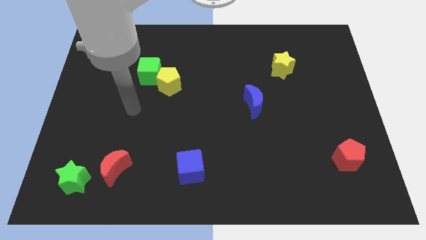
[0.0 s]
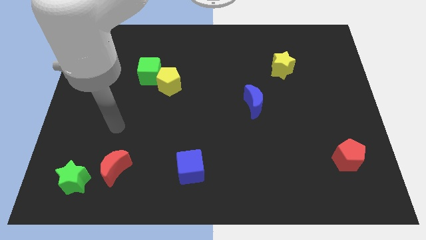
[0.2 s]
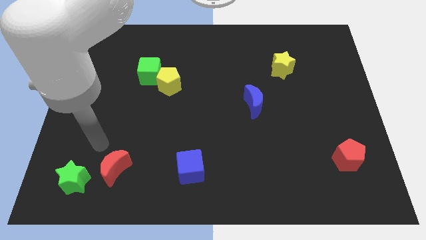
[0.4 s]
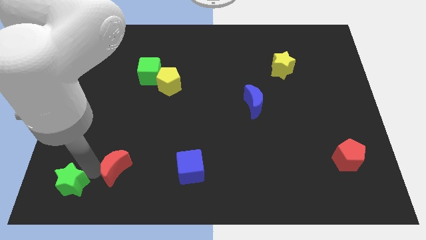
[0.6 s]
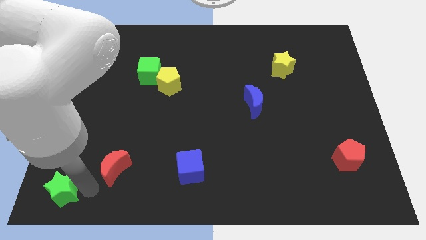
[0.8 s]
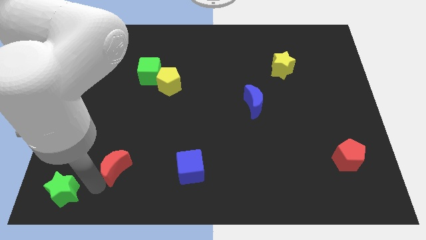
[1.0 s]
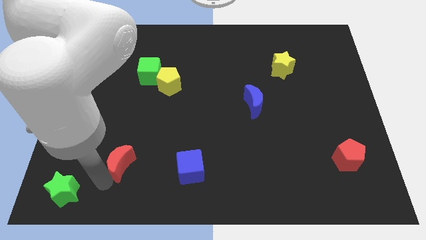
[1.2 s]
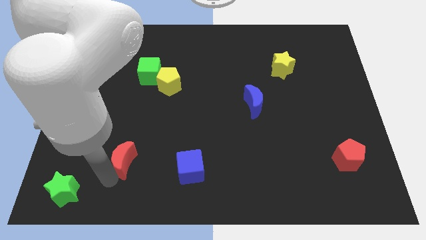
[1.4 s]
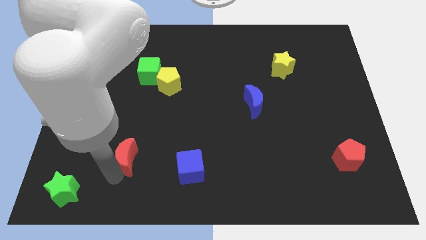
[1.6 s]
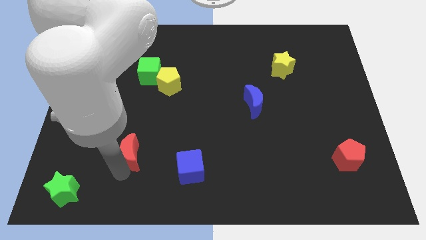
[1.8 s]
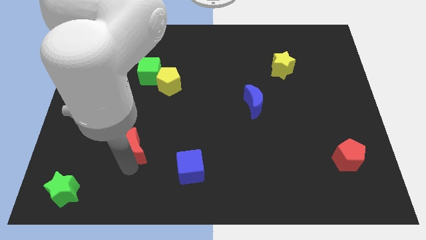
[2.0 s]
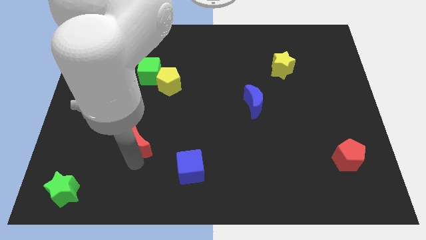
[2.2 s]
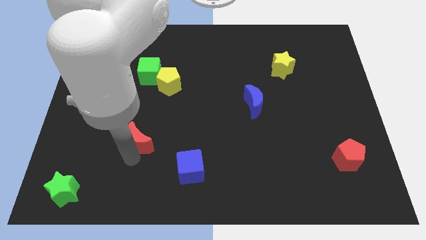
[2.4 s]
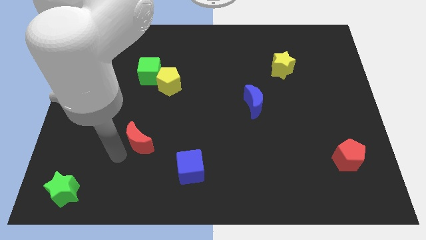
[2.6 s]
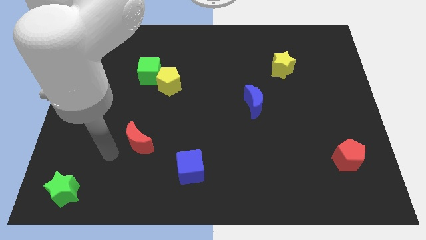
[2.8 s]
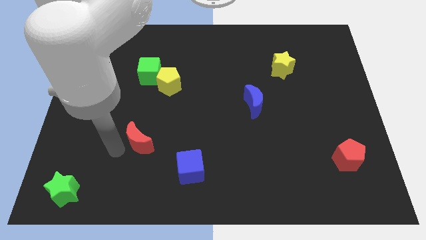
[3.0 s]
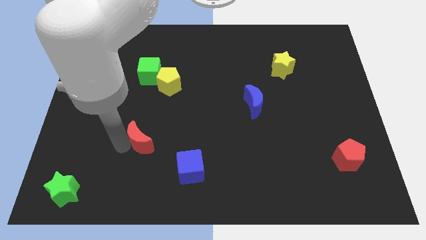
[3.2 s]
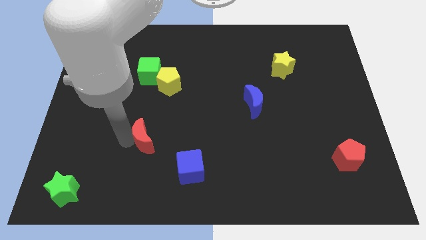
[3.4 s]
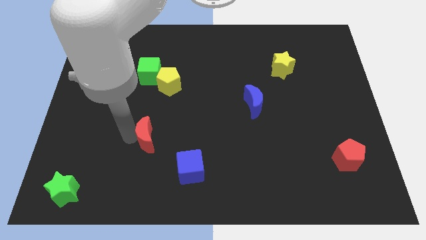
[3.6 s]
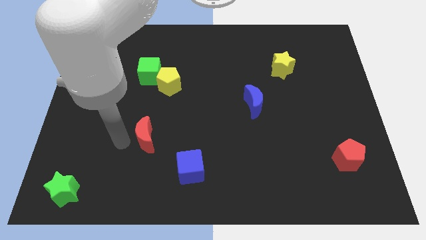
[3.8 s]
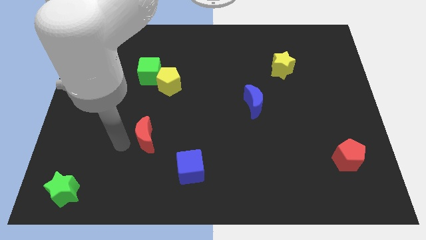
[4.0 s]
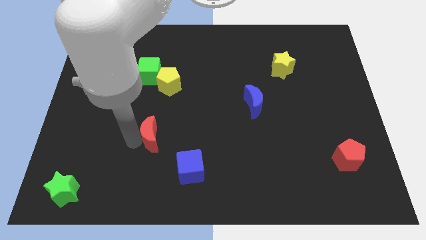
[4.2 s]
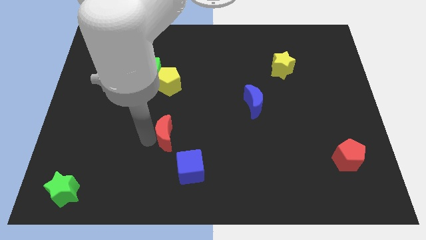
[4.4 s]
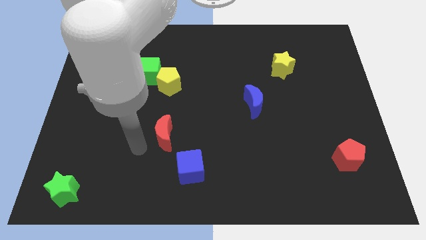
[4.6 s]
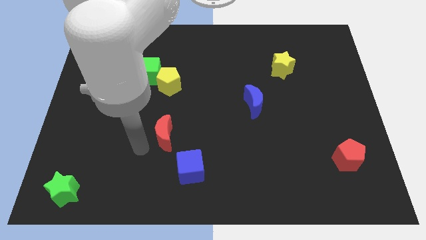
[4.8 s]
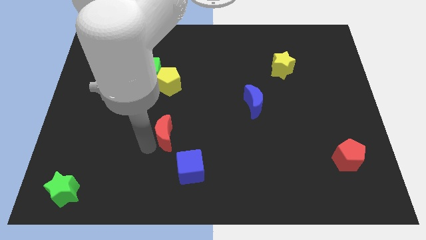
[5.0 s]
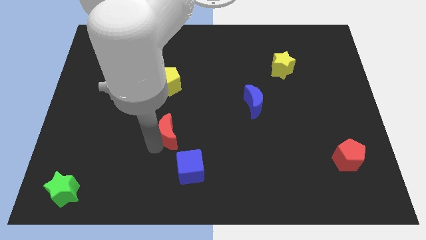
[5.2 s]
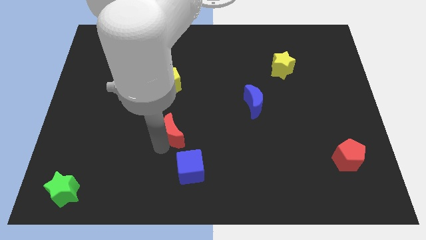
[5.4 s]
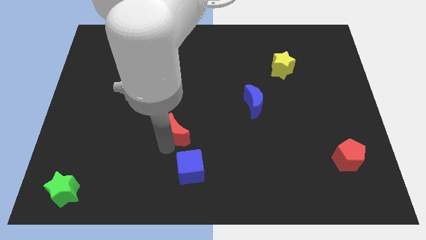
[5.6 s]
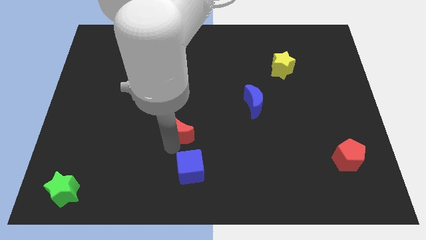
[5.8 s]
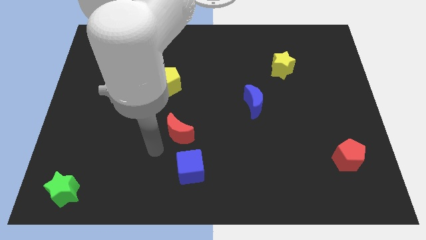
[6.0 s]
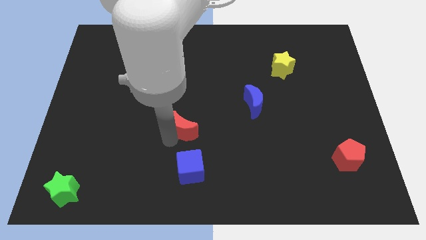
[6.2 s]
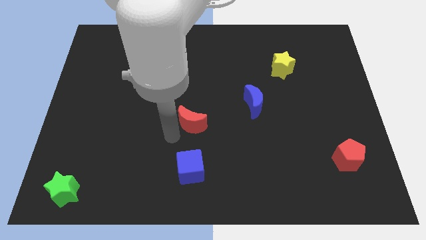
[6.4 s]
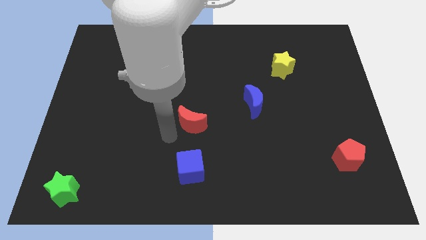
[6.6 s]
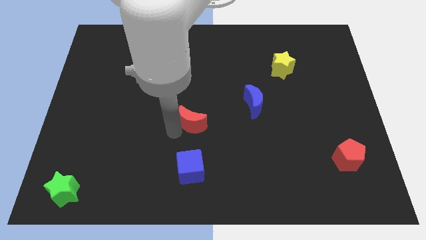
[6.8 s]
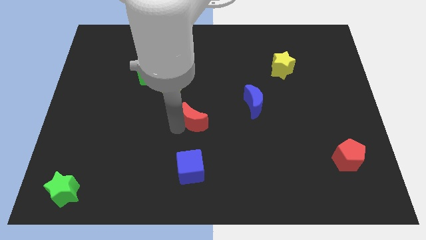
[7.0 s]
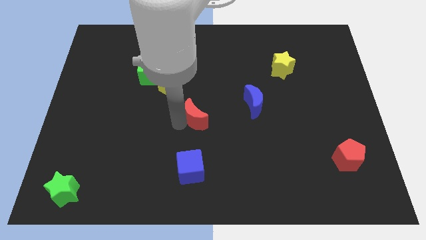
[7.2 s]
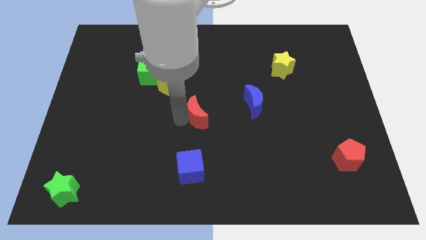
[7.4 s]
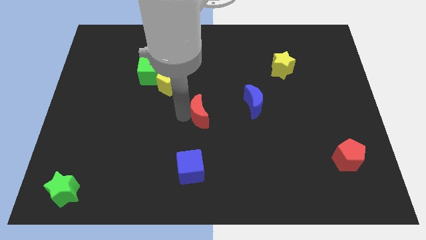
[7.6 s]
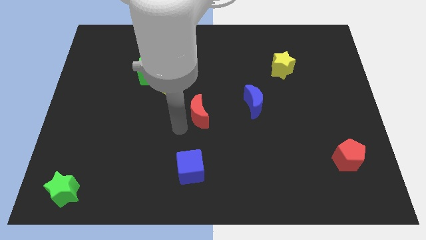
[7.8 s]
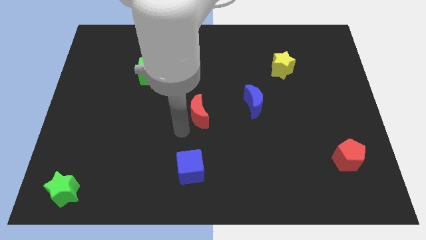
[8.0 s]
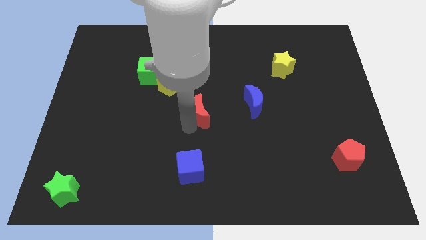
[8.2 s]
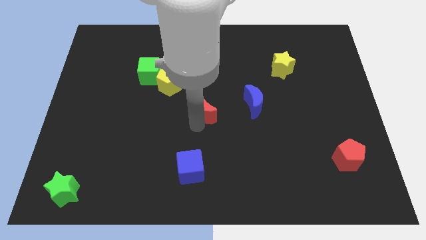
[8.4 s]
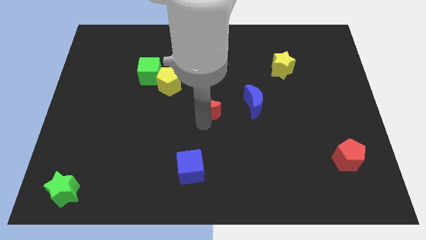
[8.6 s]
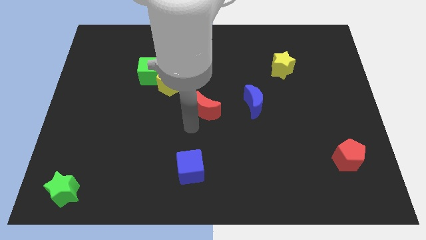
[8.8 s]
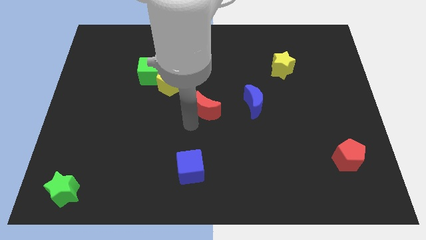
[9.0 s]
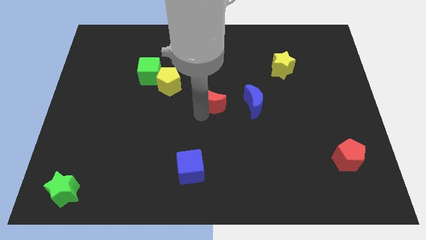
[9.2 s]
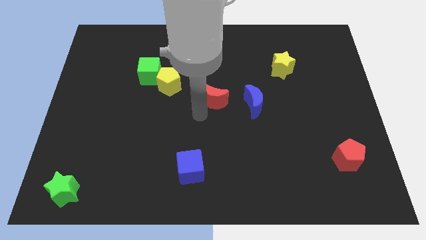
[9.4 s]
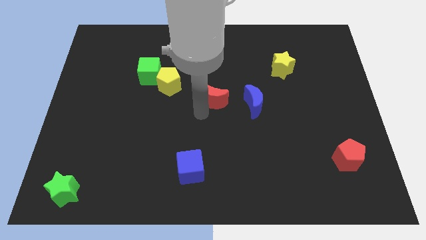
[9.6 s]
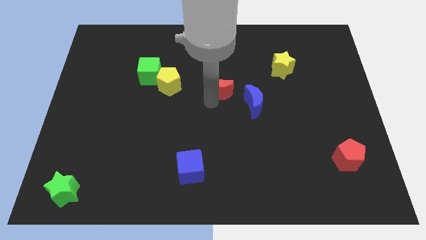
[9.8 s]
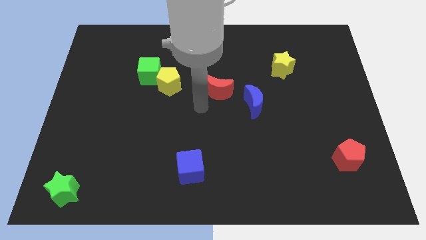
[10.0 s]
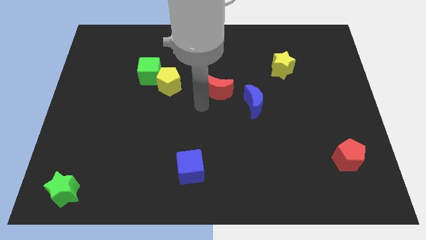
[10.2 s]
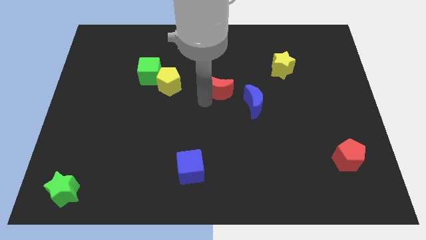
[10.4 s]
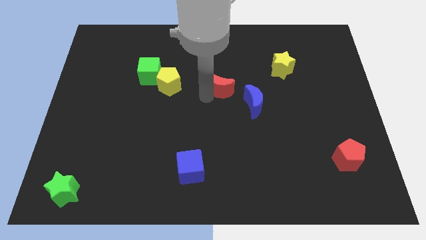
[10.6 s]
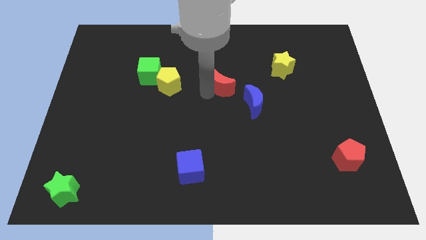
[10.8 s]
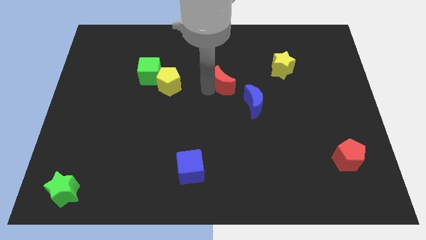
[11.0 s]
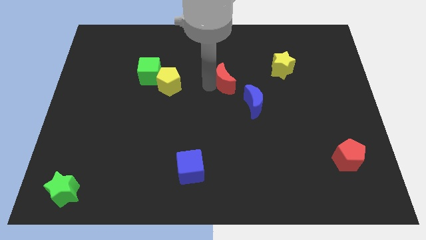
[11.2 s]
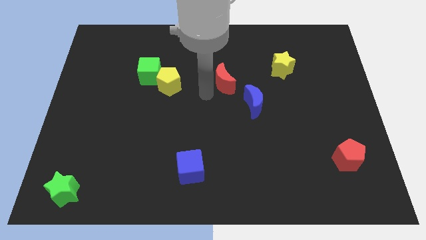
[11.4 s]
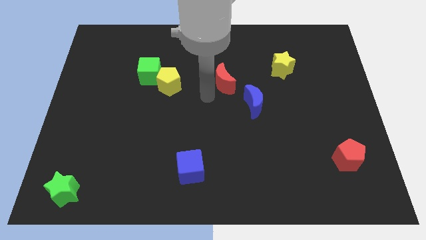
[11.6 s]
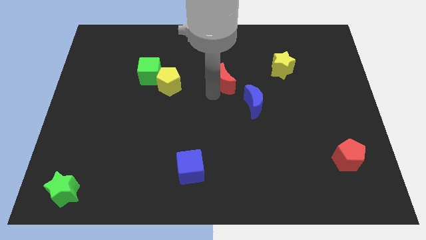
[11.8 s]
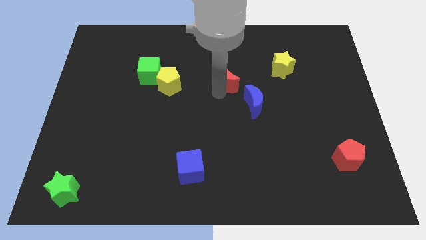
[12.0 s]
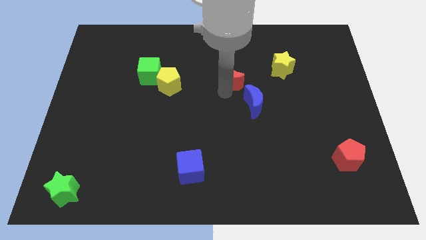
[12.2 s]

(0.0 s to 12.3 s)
put the red moon to the left of the yellow star

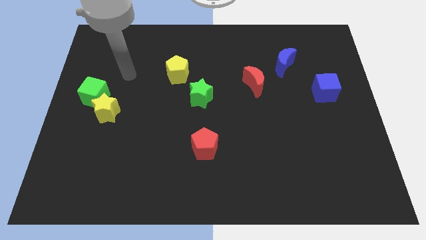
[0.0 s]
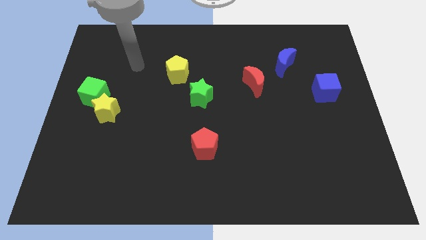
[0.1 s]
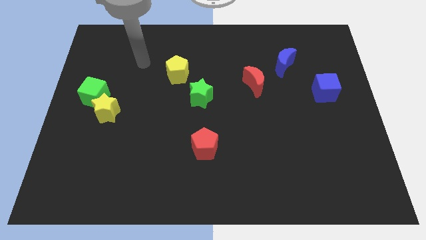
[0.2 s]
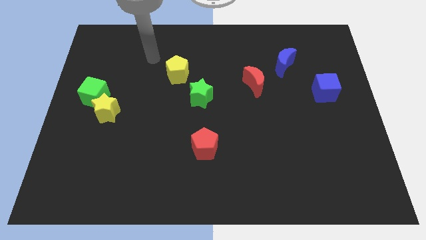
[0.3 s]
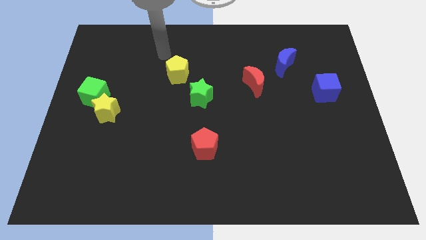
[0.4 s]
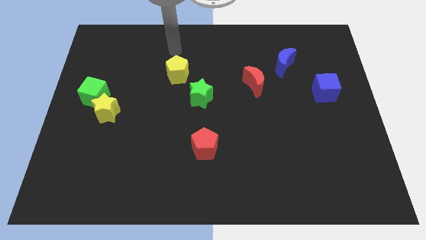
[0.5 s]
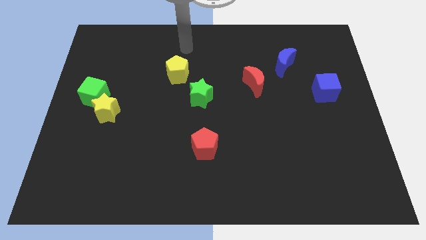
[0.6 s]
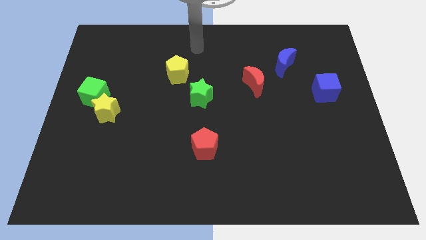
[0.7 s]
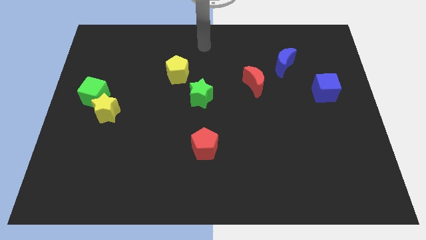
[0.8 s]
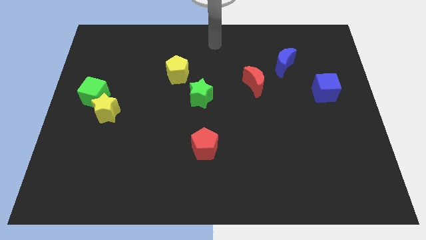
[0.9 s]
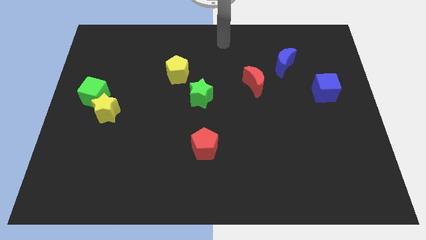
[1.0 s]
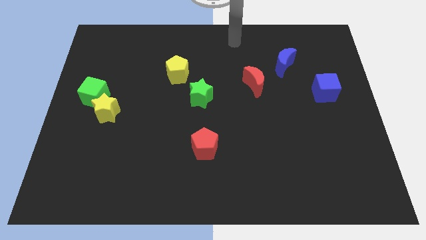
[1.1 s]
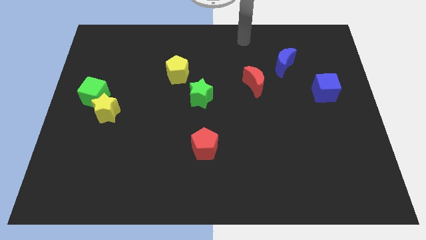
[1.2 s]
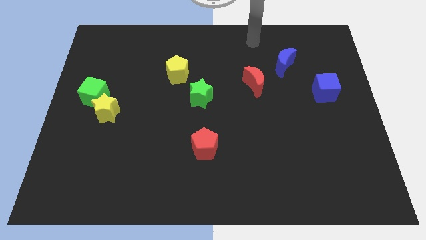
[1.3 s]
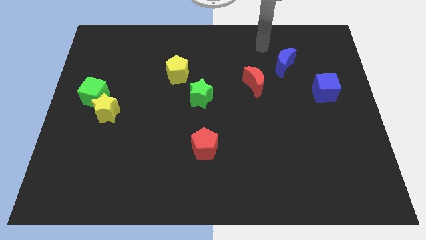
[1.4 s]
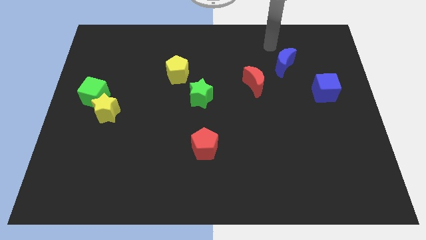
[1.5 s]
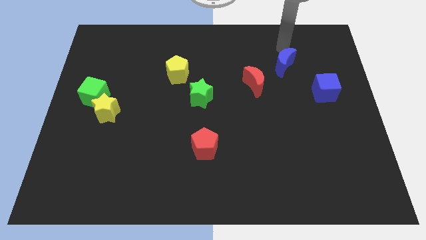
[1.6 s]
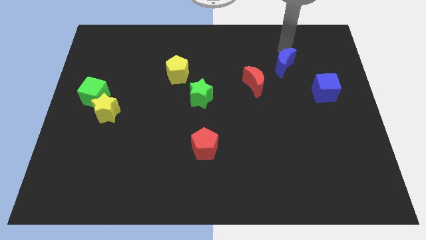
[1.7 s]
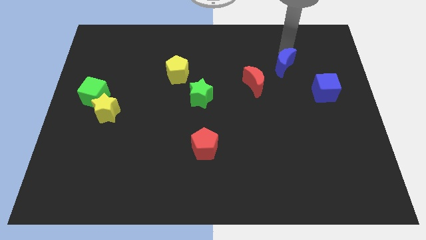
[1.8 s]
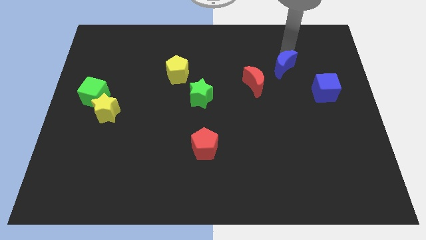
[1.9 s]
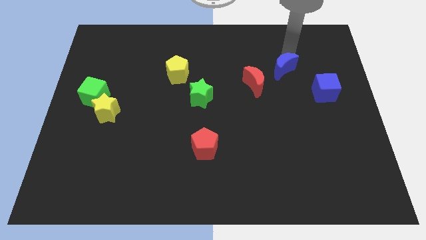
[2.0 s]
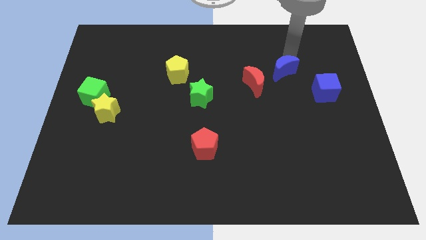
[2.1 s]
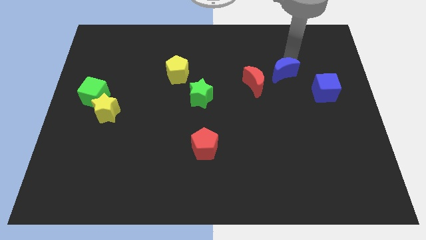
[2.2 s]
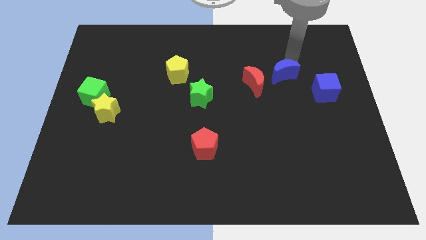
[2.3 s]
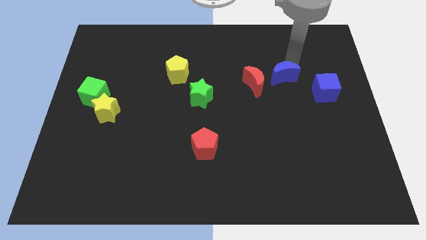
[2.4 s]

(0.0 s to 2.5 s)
push the blue moon just left of the blue cube
